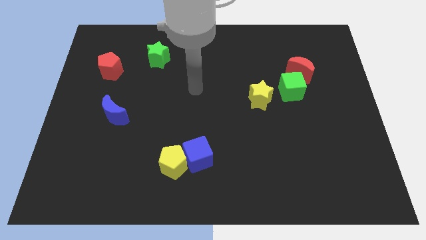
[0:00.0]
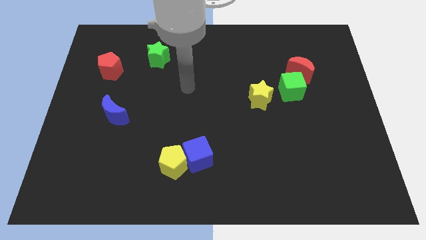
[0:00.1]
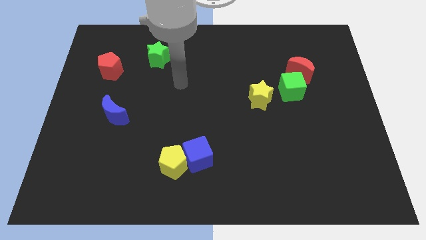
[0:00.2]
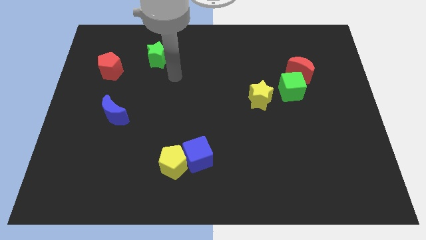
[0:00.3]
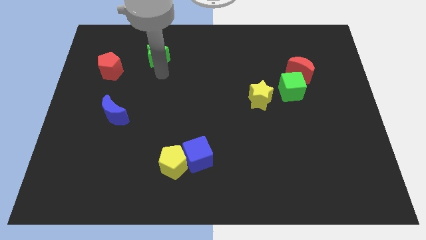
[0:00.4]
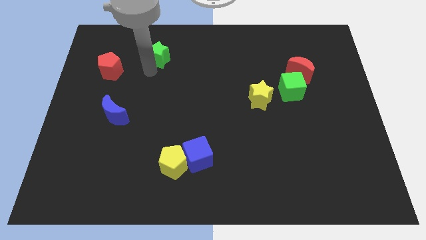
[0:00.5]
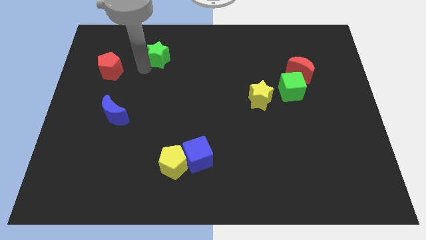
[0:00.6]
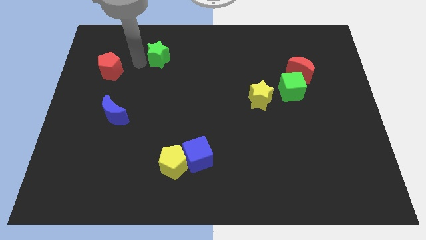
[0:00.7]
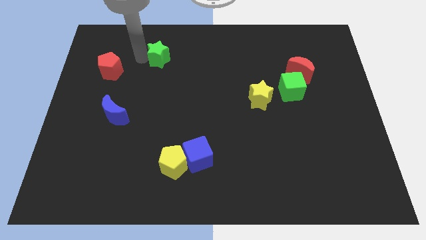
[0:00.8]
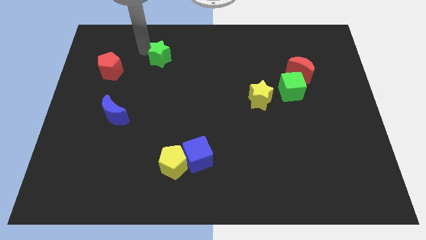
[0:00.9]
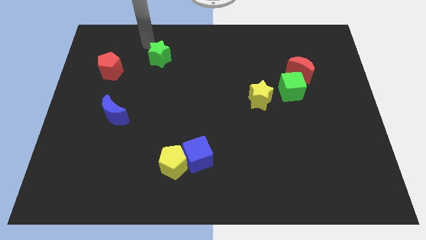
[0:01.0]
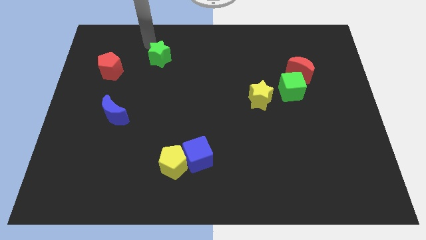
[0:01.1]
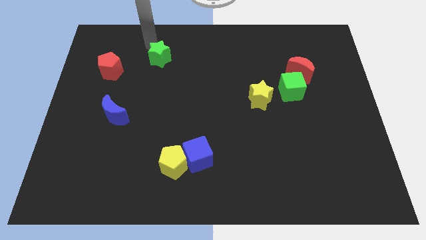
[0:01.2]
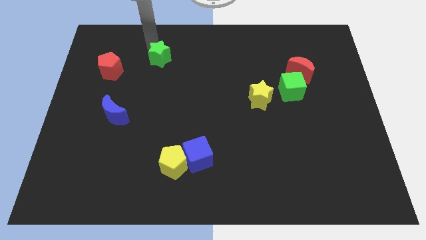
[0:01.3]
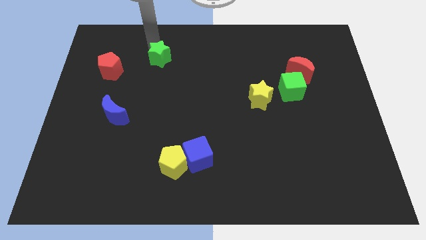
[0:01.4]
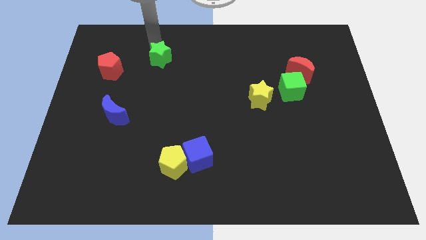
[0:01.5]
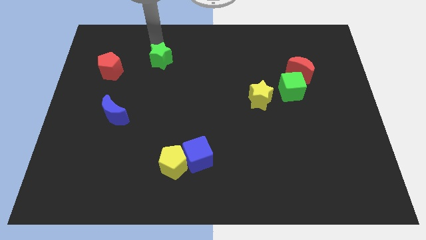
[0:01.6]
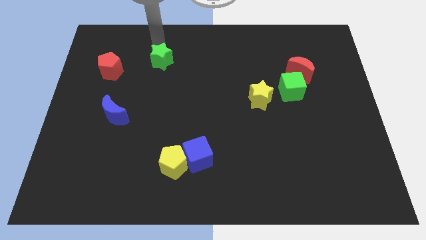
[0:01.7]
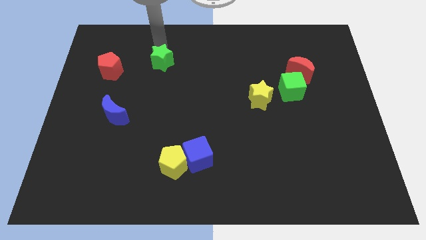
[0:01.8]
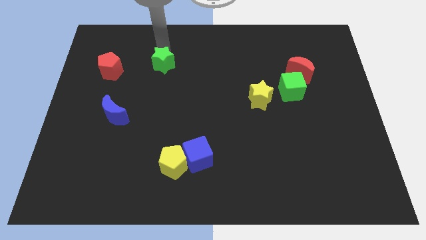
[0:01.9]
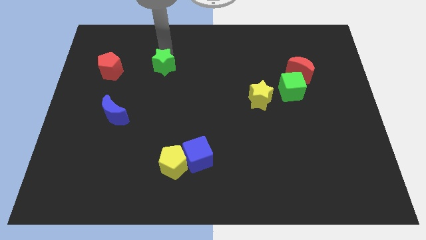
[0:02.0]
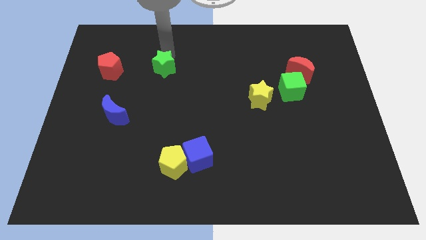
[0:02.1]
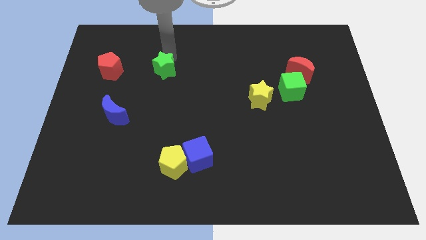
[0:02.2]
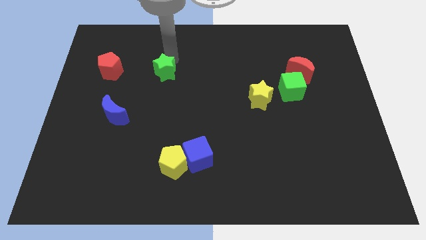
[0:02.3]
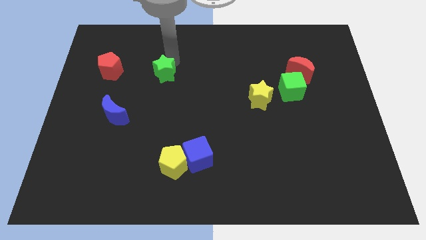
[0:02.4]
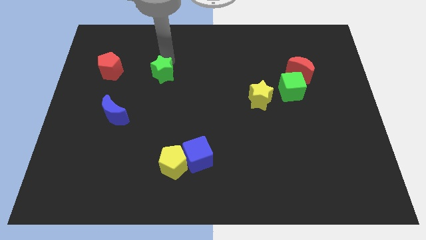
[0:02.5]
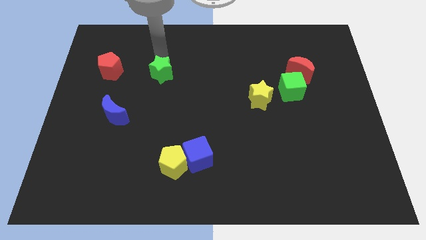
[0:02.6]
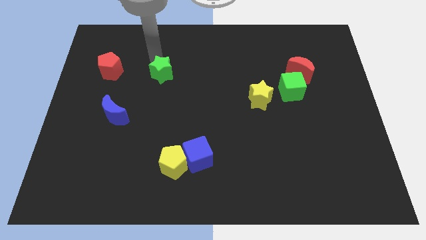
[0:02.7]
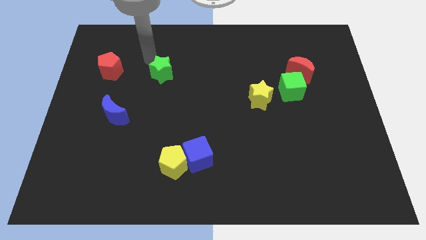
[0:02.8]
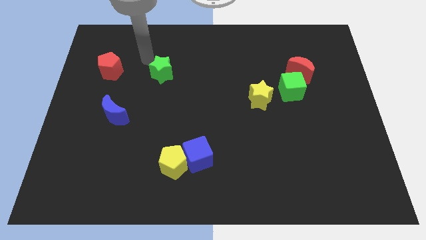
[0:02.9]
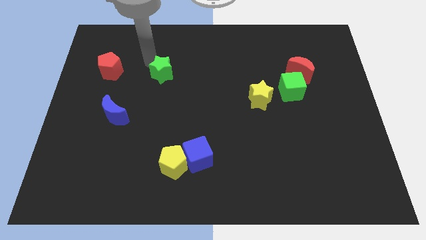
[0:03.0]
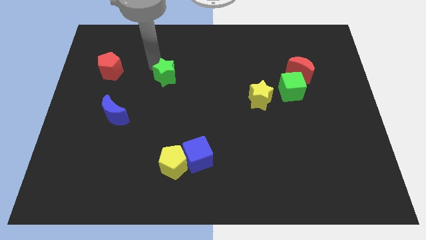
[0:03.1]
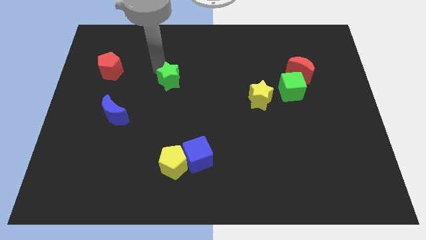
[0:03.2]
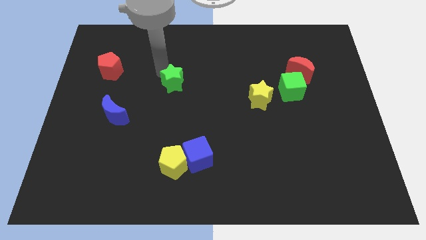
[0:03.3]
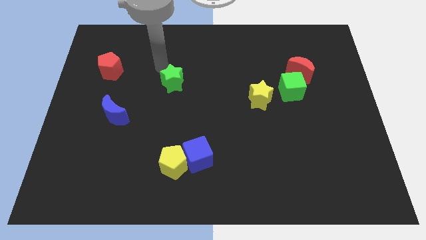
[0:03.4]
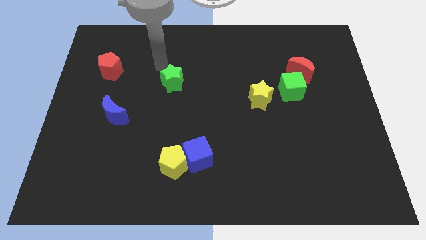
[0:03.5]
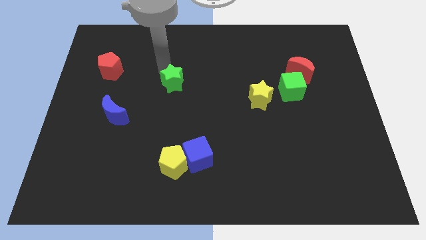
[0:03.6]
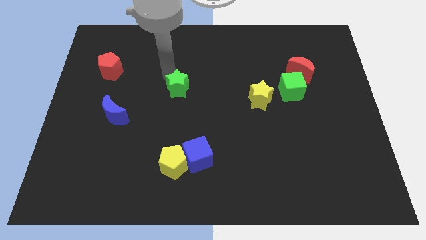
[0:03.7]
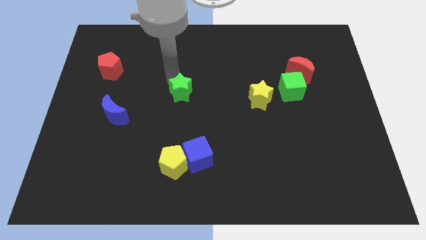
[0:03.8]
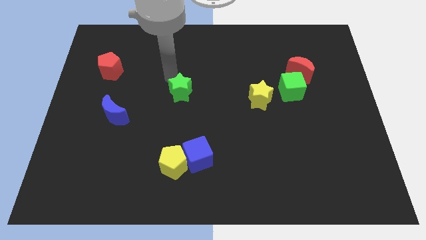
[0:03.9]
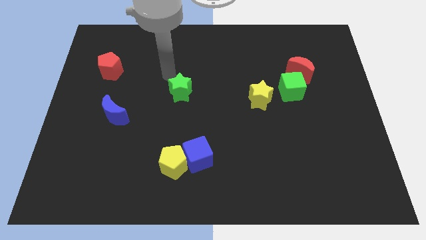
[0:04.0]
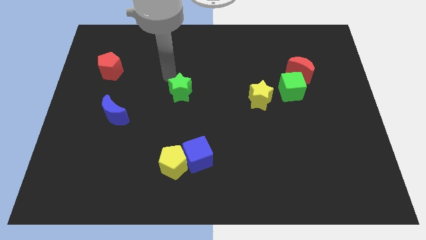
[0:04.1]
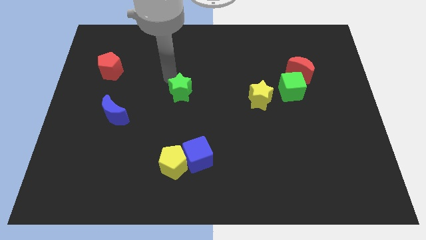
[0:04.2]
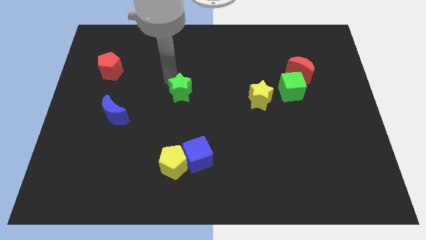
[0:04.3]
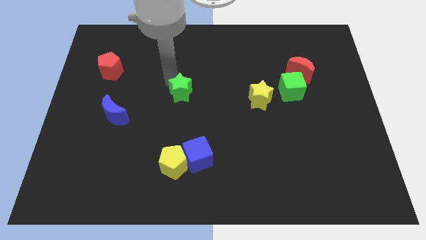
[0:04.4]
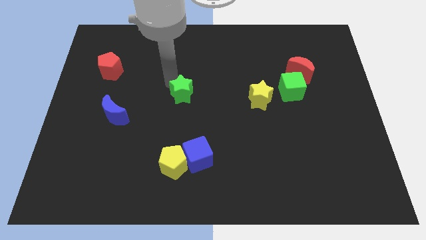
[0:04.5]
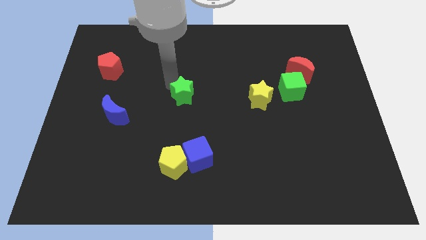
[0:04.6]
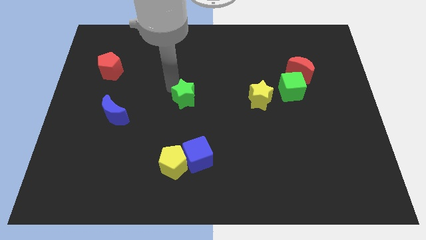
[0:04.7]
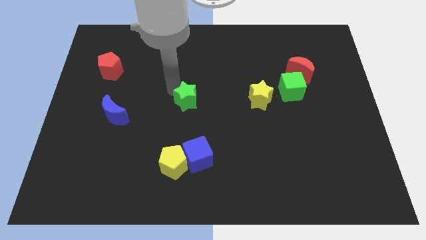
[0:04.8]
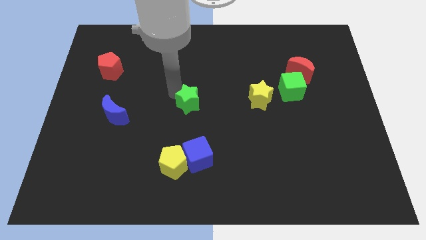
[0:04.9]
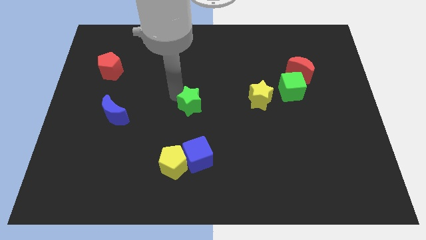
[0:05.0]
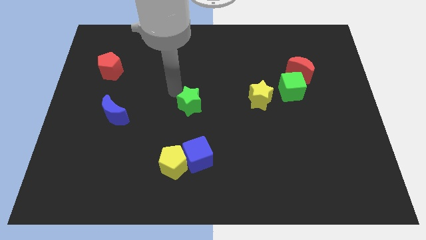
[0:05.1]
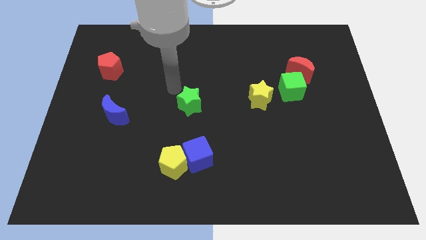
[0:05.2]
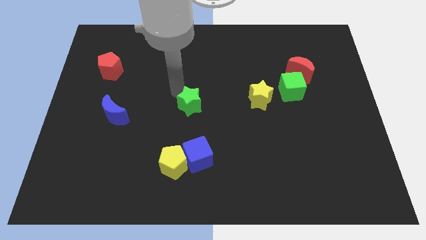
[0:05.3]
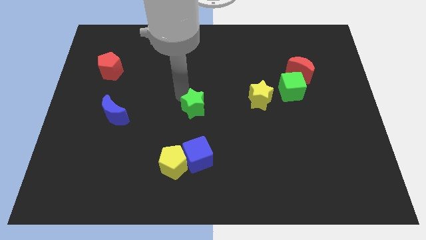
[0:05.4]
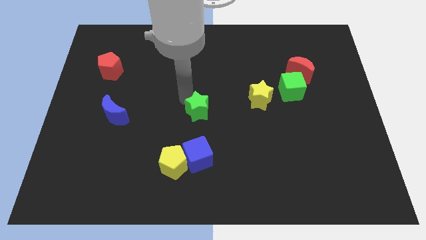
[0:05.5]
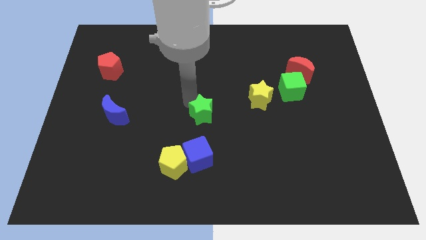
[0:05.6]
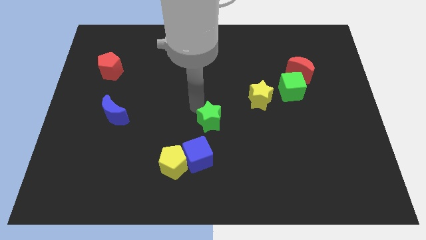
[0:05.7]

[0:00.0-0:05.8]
put the green star to the top right side of the blue cube

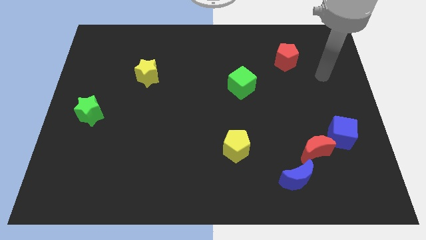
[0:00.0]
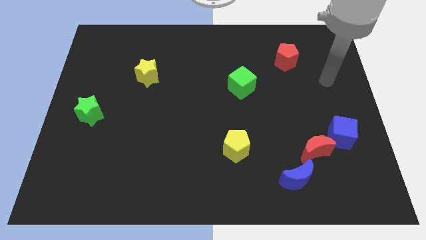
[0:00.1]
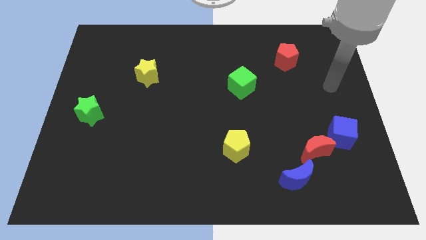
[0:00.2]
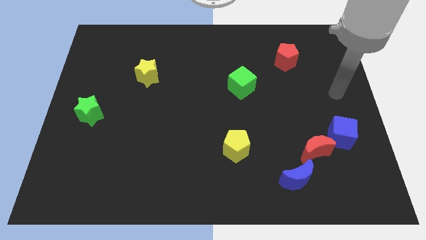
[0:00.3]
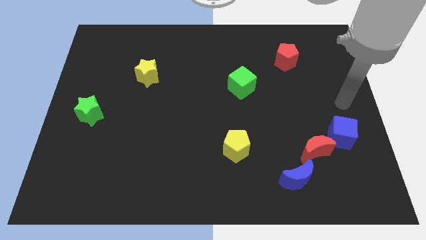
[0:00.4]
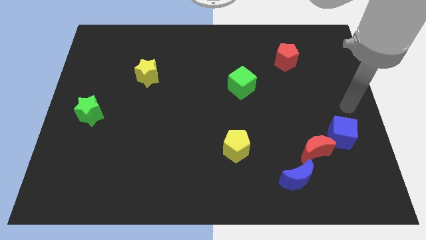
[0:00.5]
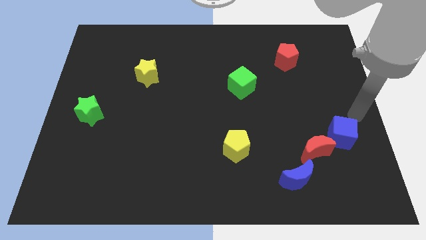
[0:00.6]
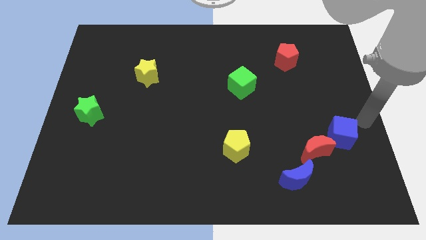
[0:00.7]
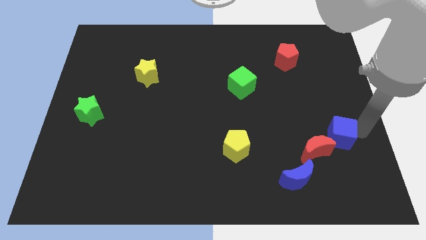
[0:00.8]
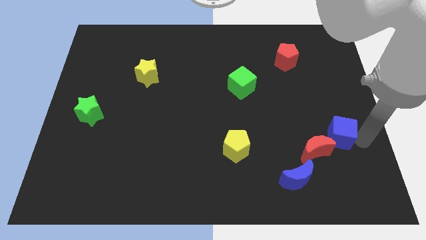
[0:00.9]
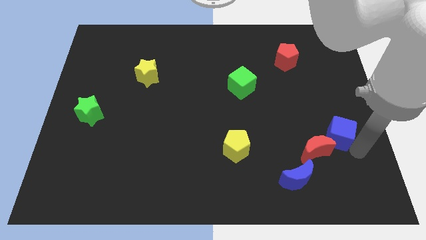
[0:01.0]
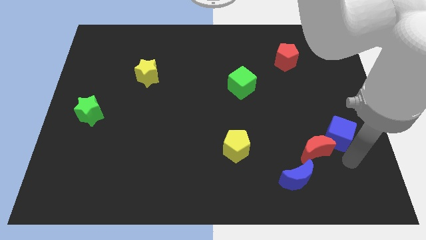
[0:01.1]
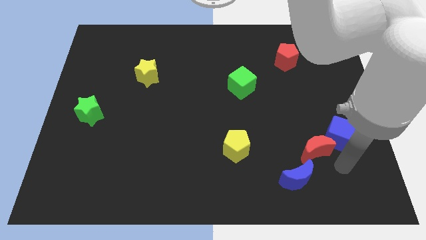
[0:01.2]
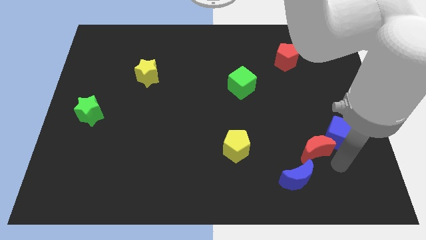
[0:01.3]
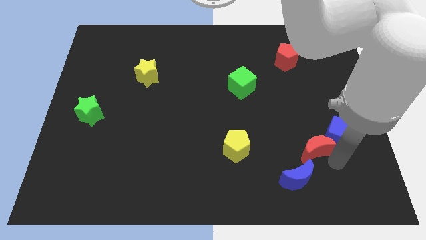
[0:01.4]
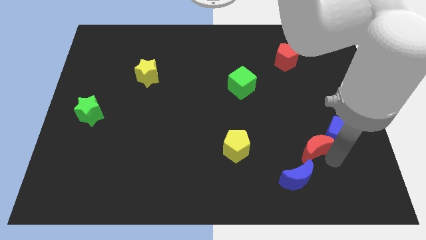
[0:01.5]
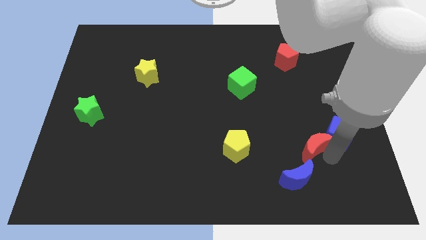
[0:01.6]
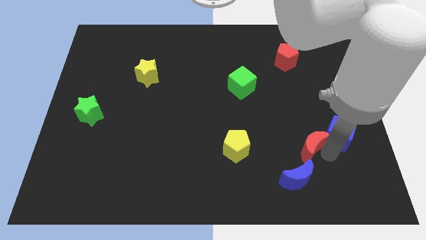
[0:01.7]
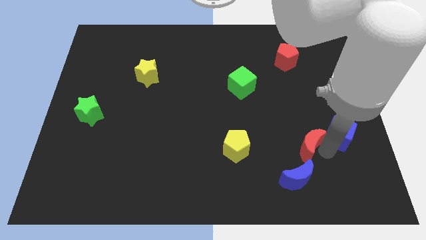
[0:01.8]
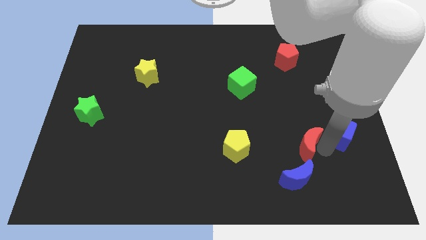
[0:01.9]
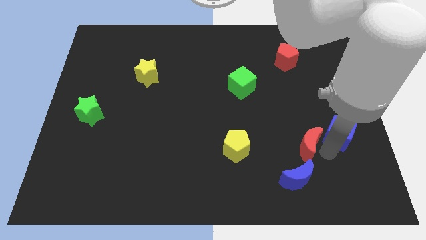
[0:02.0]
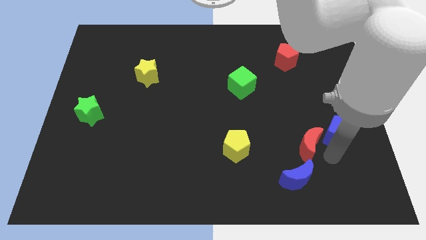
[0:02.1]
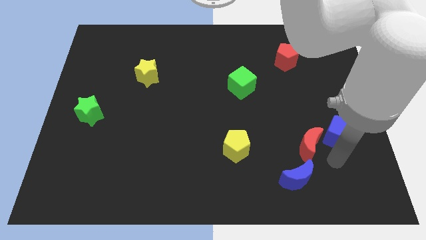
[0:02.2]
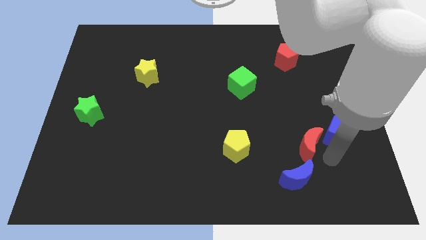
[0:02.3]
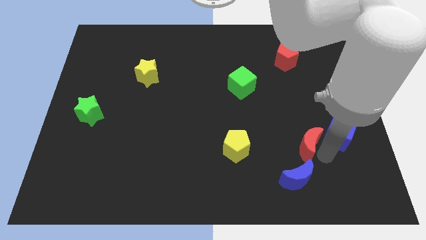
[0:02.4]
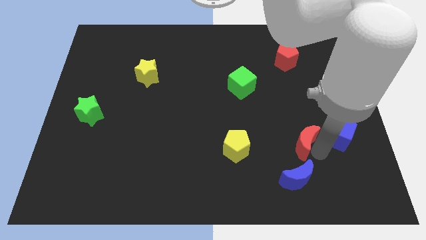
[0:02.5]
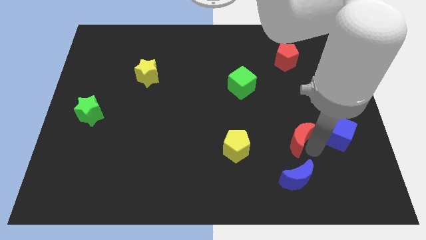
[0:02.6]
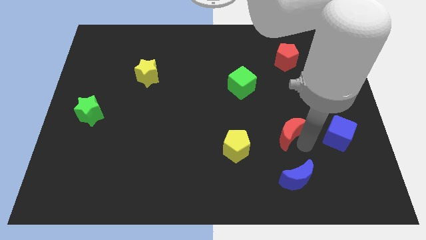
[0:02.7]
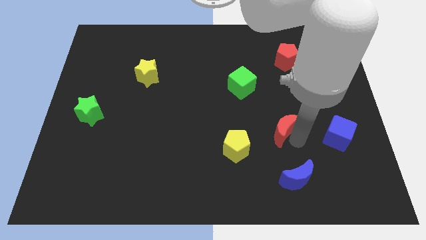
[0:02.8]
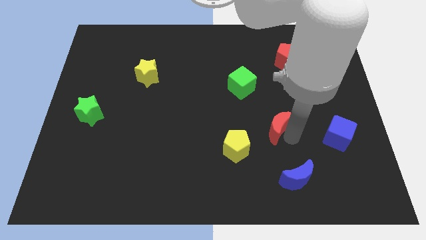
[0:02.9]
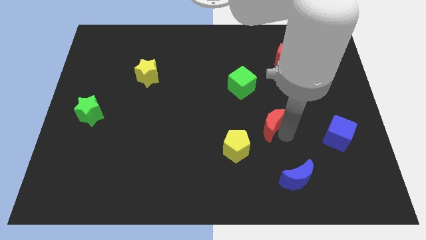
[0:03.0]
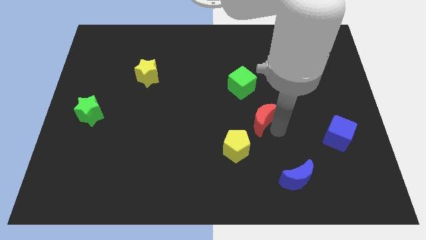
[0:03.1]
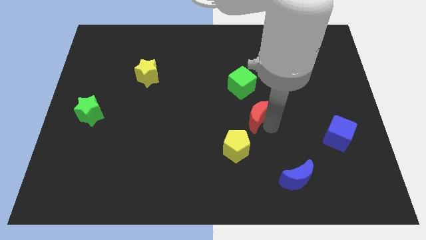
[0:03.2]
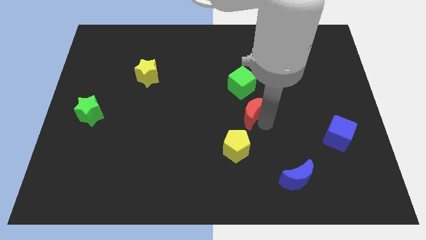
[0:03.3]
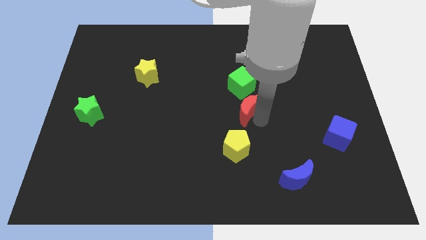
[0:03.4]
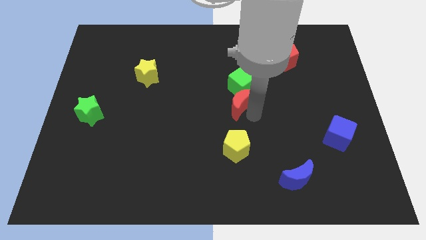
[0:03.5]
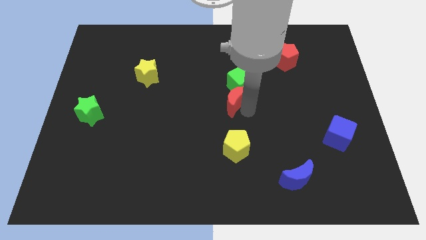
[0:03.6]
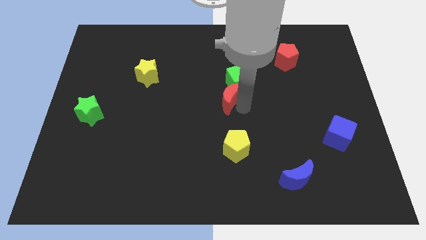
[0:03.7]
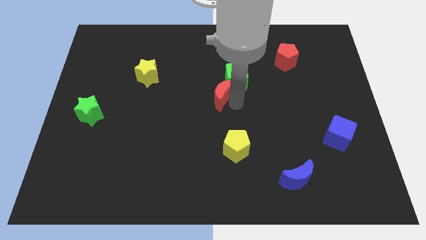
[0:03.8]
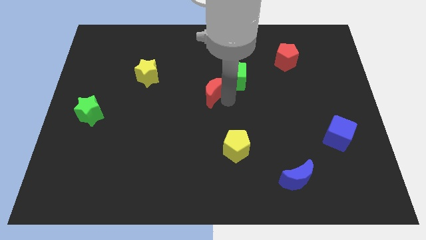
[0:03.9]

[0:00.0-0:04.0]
slide the red moon to the left of the green cube
